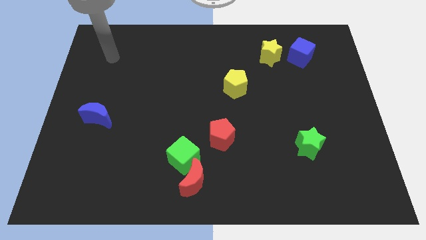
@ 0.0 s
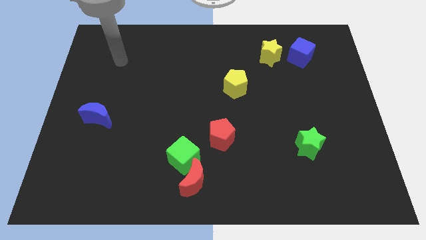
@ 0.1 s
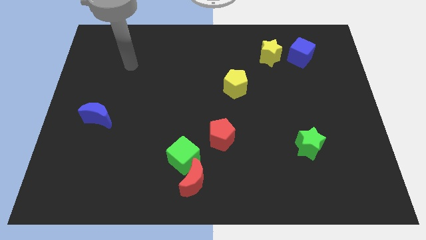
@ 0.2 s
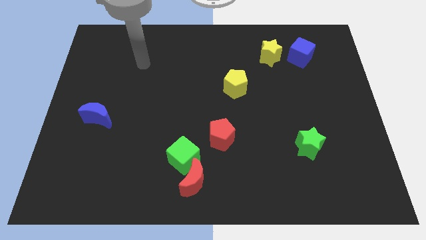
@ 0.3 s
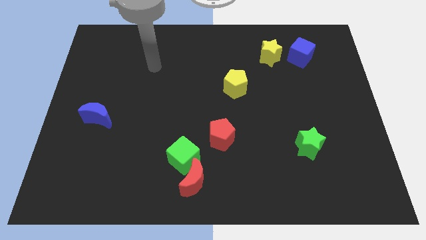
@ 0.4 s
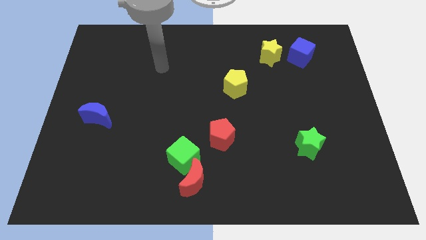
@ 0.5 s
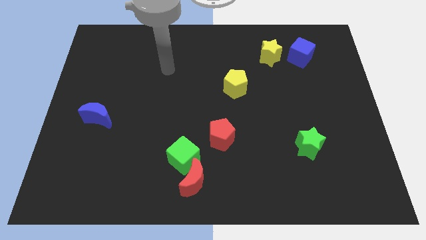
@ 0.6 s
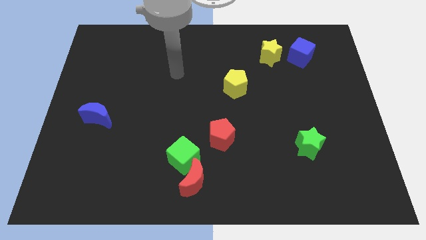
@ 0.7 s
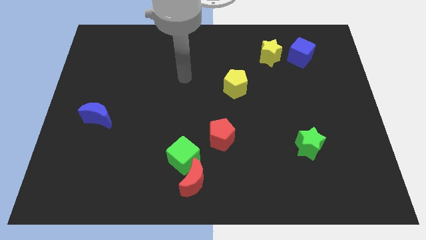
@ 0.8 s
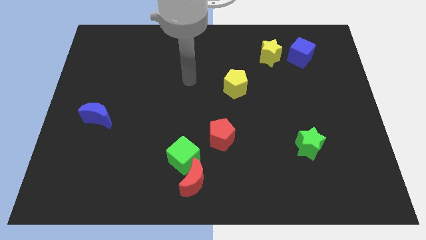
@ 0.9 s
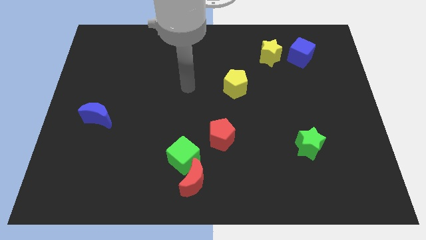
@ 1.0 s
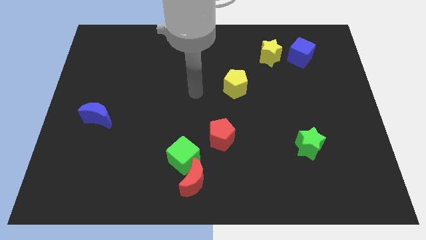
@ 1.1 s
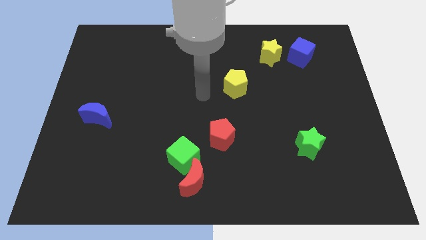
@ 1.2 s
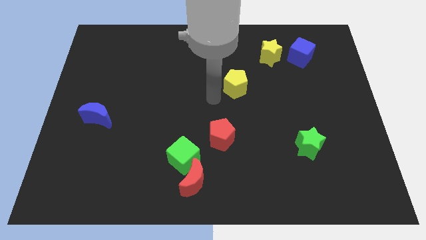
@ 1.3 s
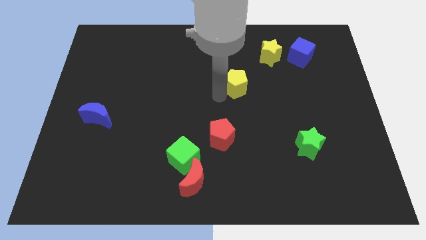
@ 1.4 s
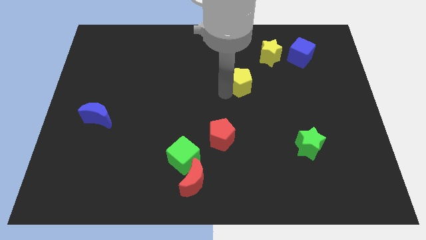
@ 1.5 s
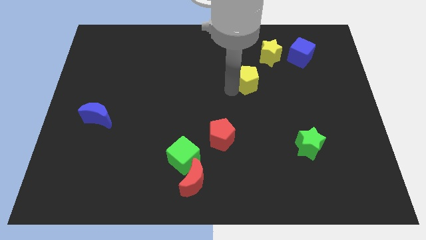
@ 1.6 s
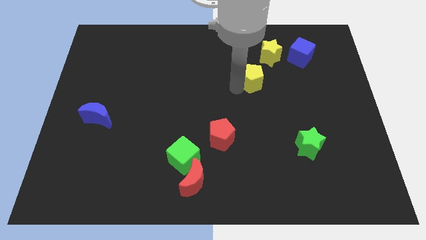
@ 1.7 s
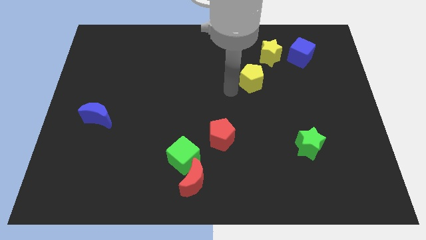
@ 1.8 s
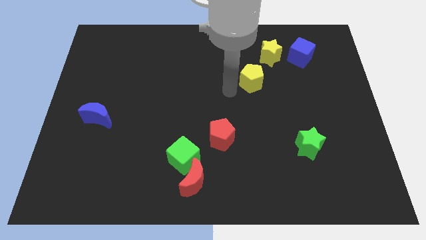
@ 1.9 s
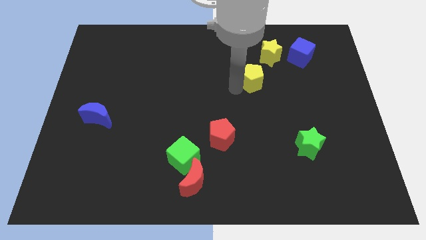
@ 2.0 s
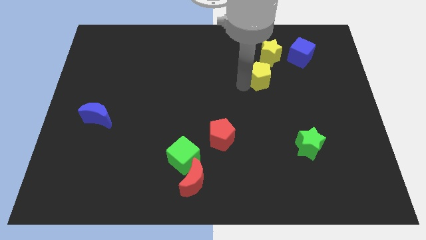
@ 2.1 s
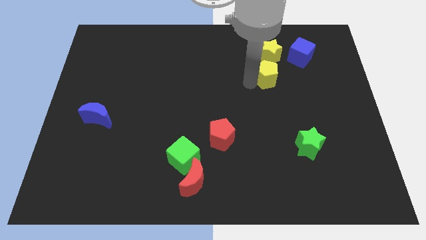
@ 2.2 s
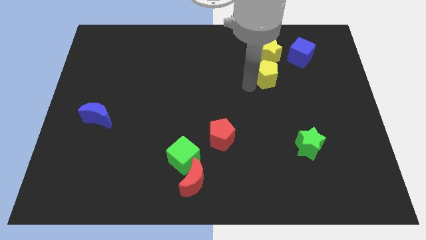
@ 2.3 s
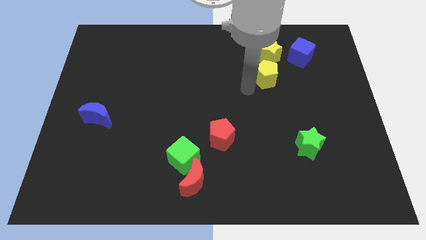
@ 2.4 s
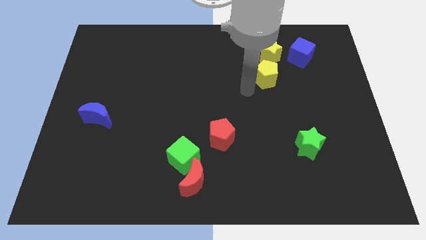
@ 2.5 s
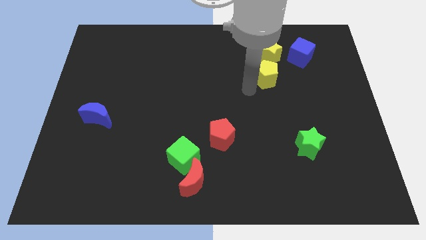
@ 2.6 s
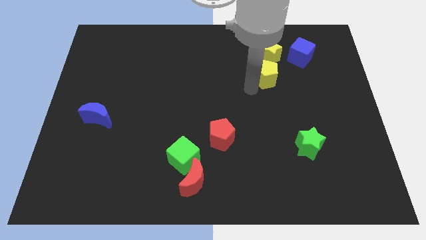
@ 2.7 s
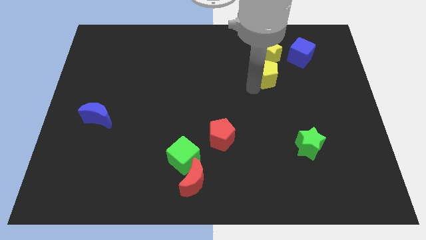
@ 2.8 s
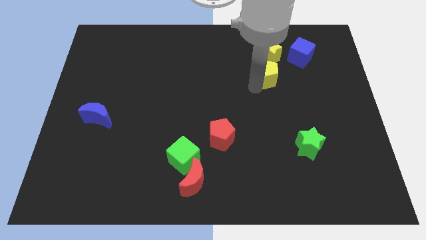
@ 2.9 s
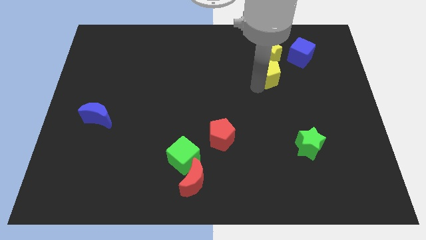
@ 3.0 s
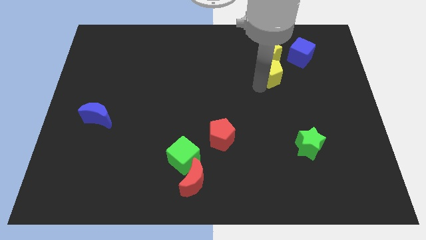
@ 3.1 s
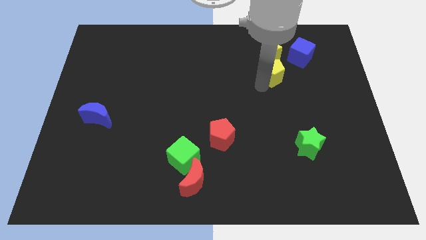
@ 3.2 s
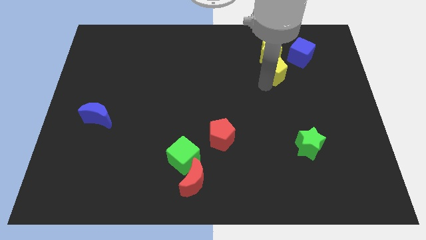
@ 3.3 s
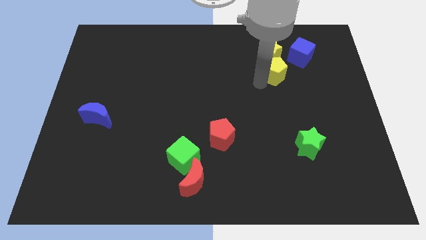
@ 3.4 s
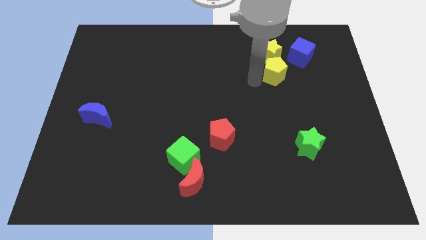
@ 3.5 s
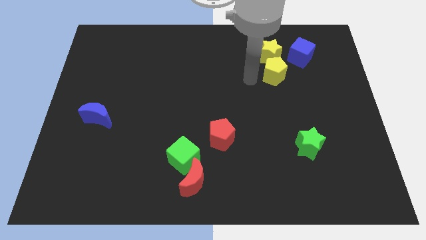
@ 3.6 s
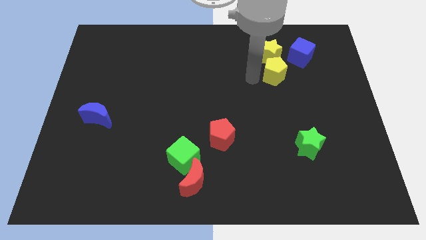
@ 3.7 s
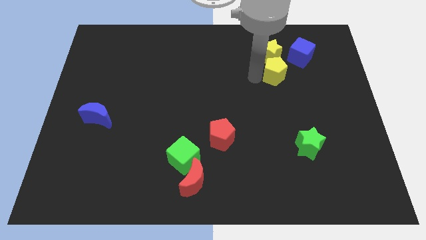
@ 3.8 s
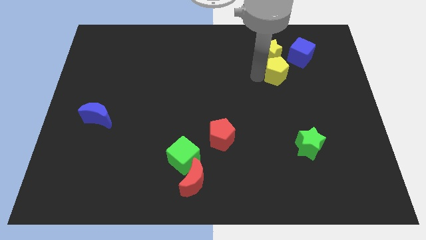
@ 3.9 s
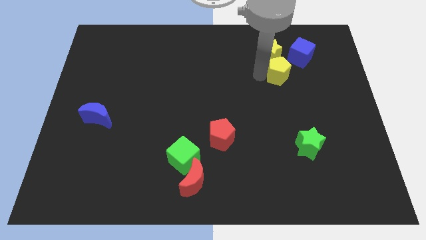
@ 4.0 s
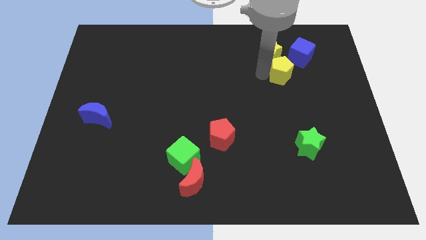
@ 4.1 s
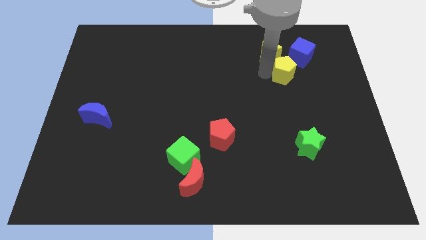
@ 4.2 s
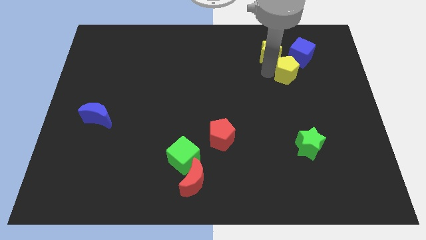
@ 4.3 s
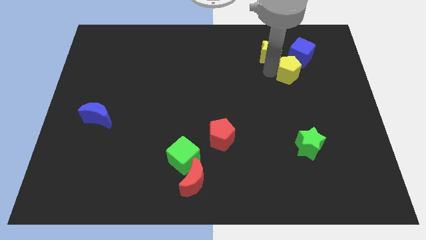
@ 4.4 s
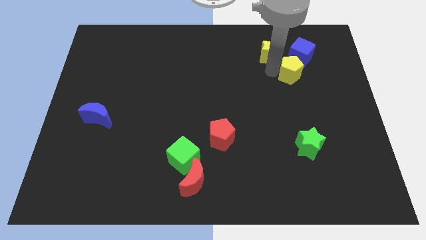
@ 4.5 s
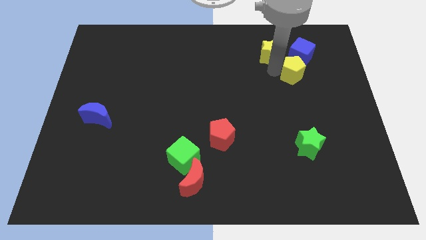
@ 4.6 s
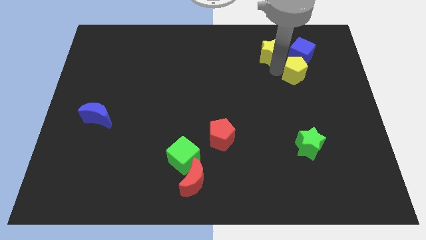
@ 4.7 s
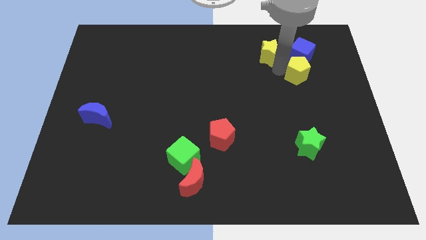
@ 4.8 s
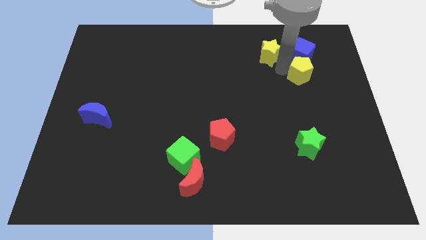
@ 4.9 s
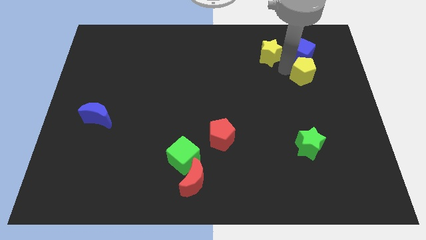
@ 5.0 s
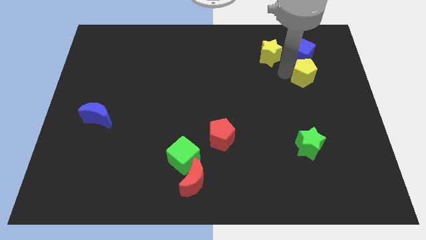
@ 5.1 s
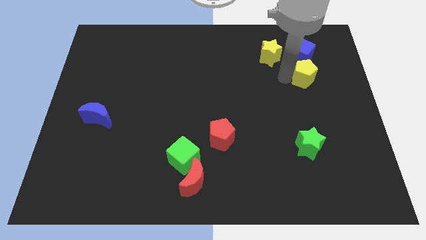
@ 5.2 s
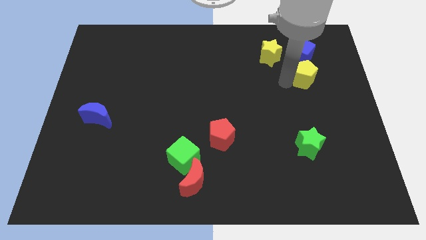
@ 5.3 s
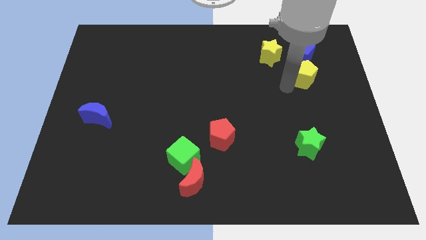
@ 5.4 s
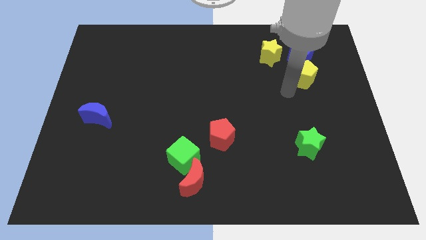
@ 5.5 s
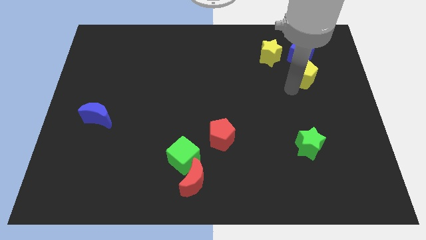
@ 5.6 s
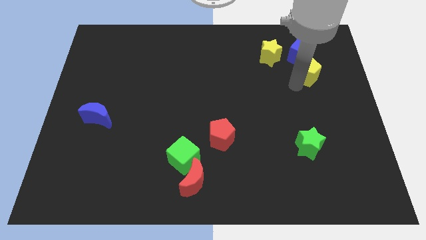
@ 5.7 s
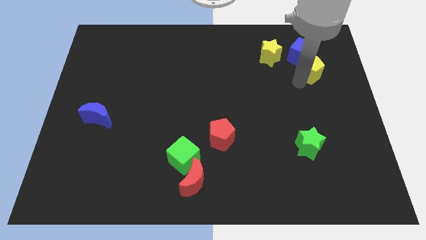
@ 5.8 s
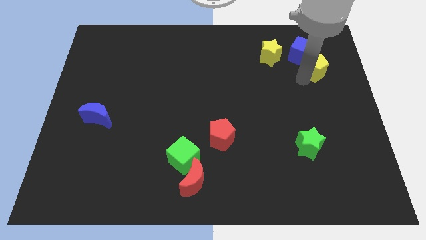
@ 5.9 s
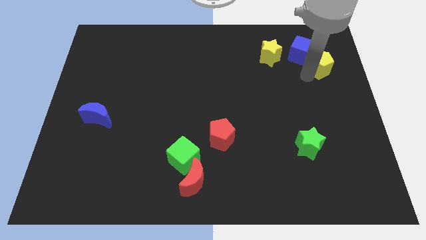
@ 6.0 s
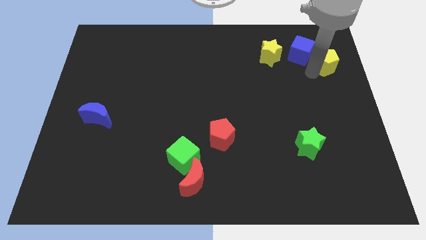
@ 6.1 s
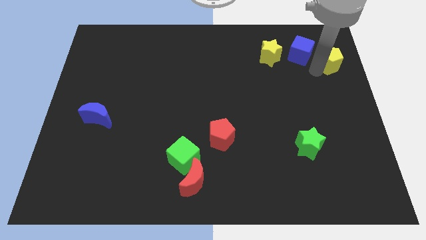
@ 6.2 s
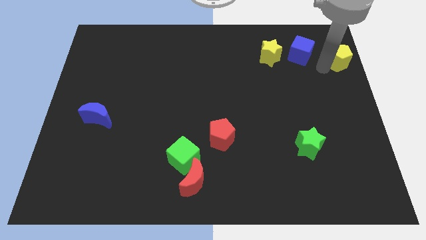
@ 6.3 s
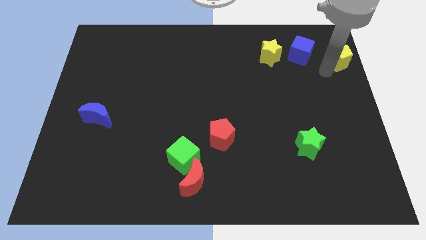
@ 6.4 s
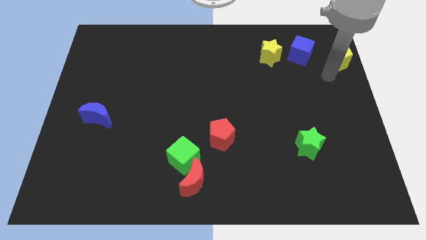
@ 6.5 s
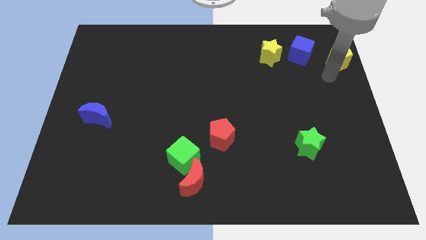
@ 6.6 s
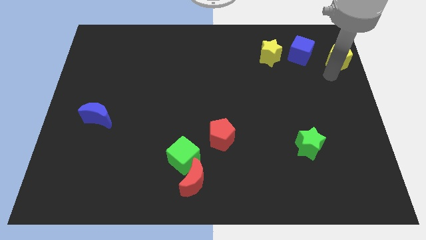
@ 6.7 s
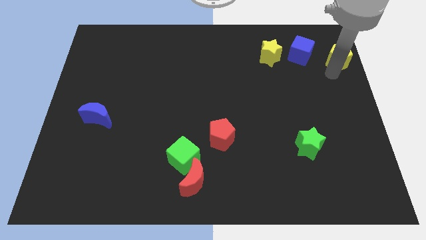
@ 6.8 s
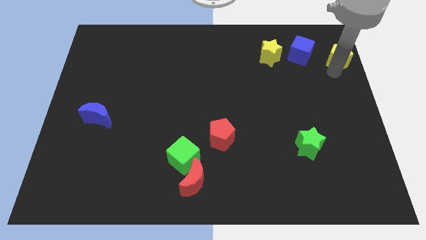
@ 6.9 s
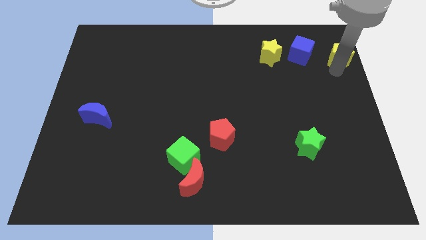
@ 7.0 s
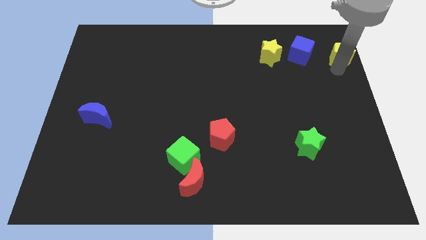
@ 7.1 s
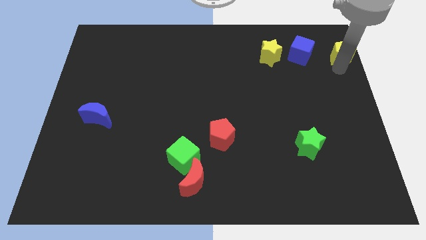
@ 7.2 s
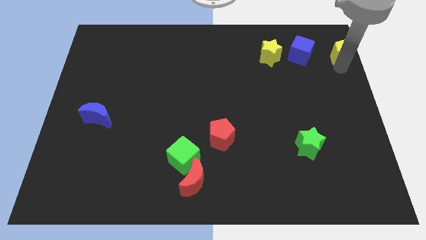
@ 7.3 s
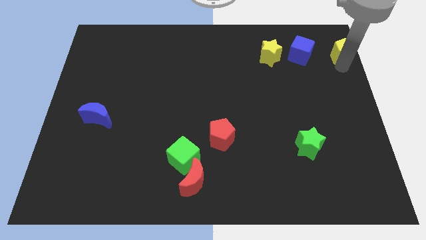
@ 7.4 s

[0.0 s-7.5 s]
slide the yellow pentagon to the upper right corner
